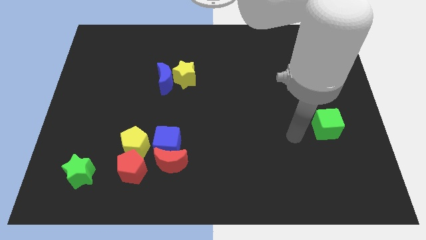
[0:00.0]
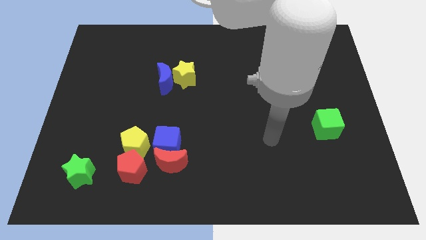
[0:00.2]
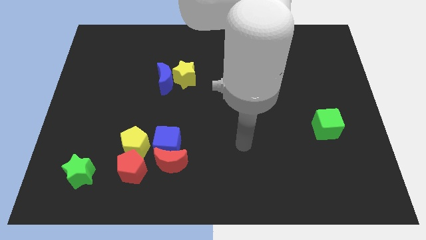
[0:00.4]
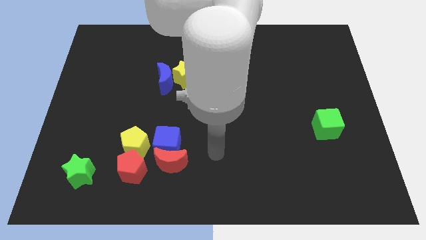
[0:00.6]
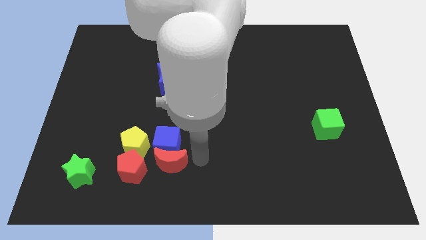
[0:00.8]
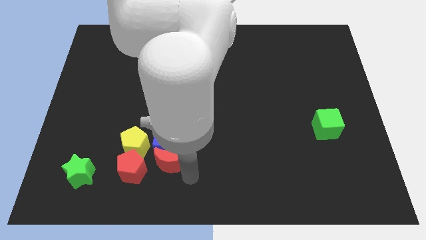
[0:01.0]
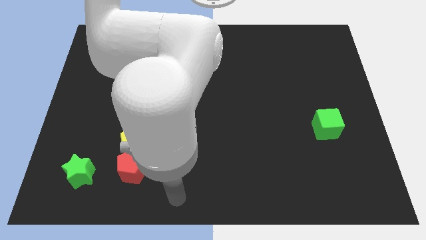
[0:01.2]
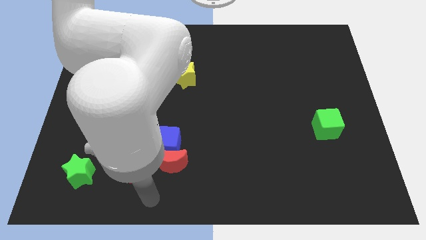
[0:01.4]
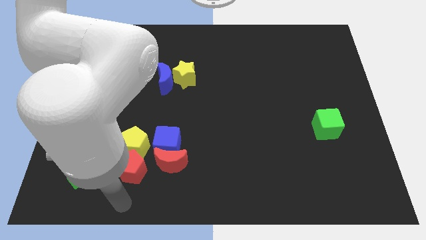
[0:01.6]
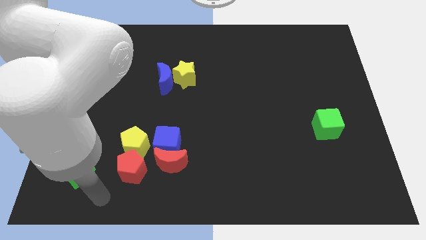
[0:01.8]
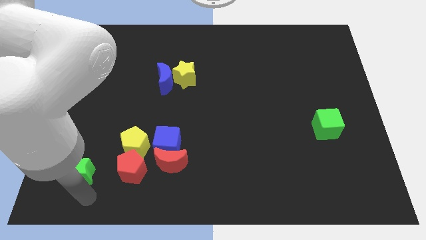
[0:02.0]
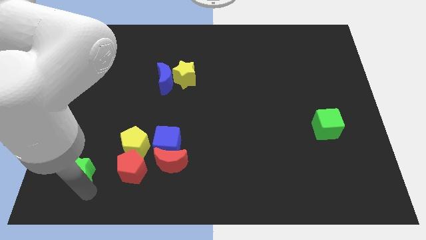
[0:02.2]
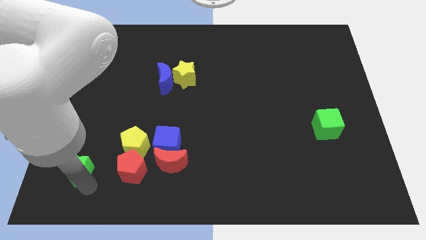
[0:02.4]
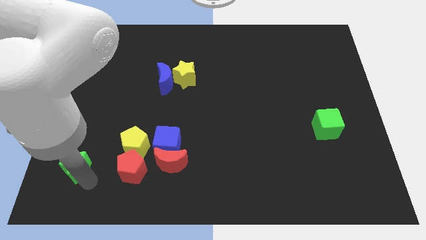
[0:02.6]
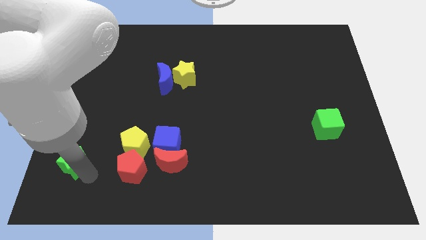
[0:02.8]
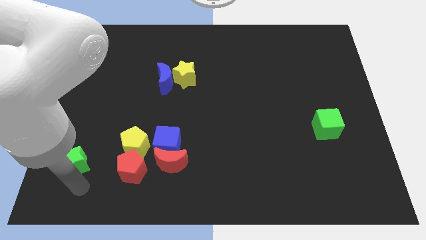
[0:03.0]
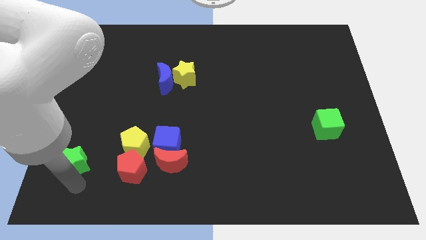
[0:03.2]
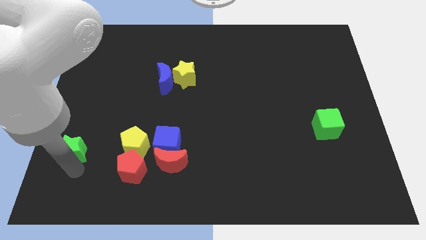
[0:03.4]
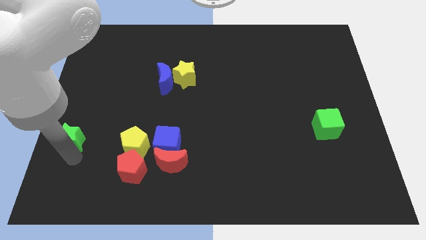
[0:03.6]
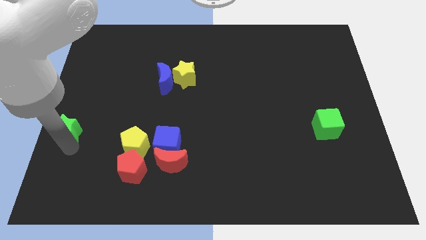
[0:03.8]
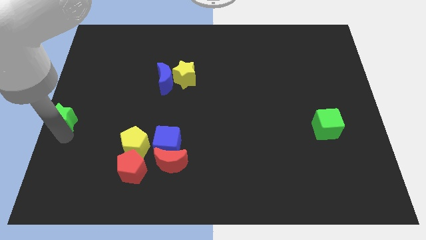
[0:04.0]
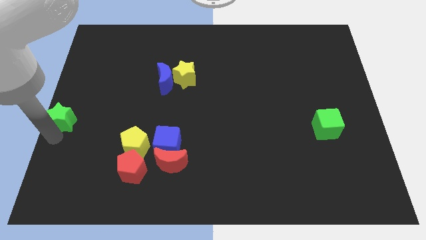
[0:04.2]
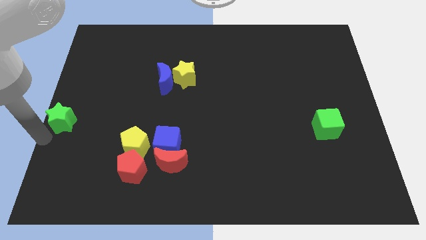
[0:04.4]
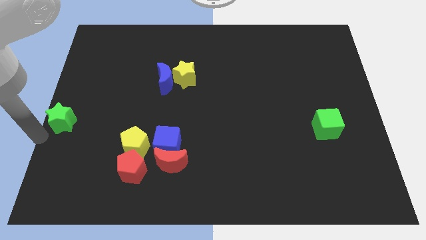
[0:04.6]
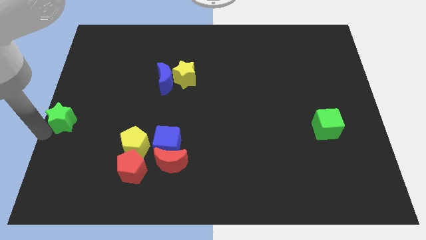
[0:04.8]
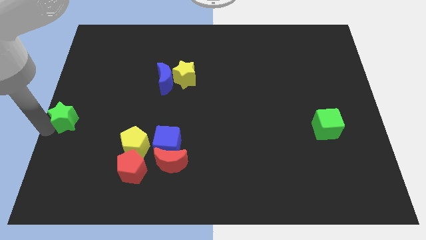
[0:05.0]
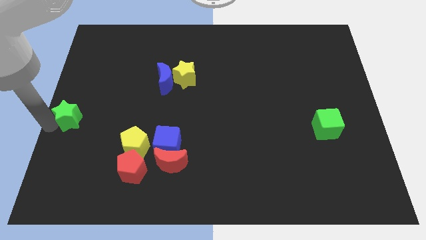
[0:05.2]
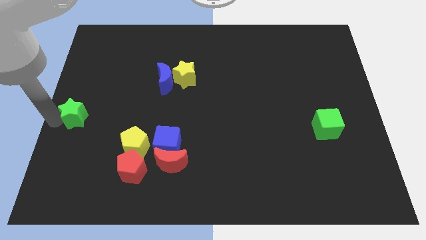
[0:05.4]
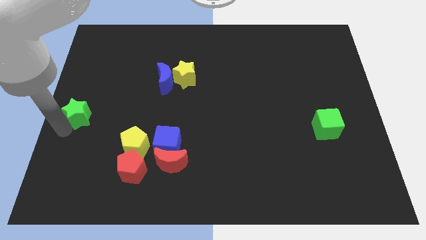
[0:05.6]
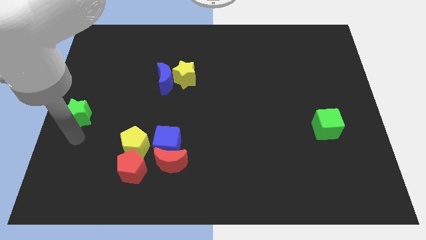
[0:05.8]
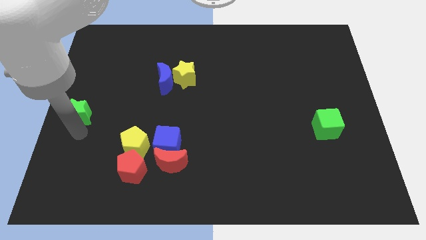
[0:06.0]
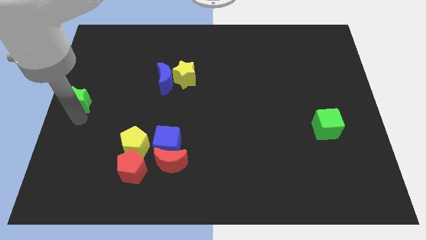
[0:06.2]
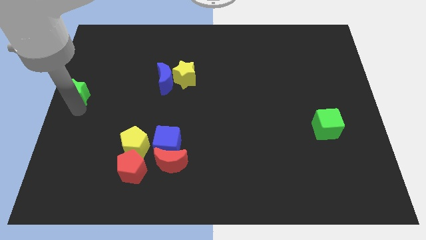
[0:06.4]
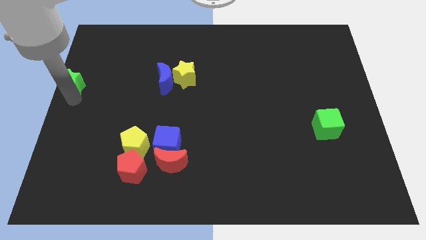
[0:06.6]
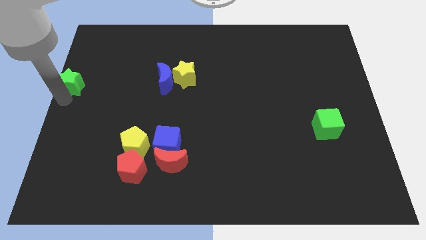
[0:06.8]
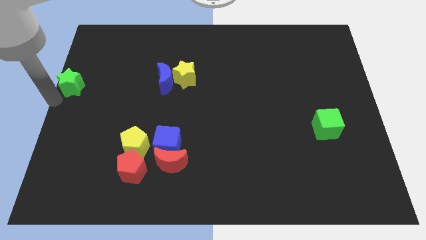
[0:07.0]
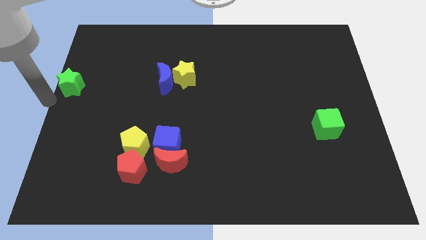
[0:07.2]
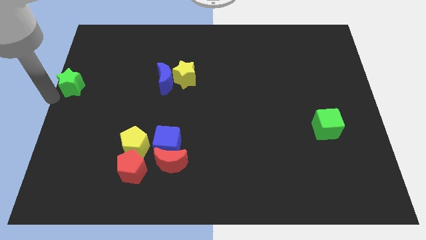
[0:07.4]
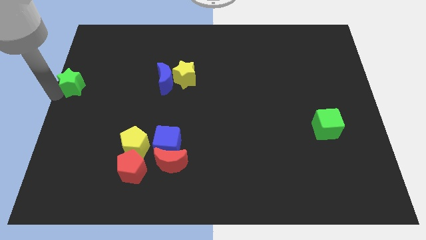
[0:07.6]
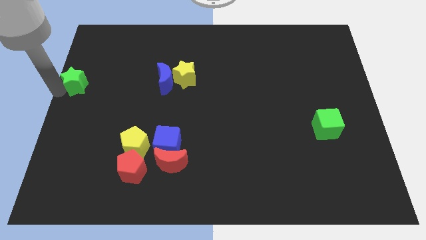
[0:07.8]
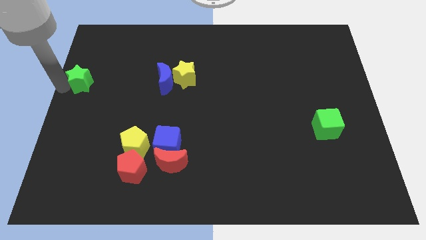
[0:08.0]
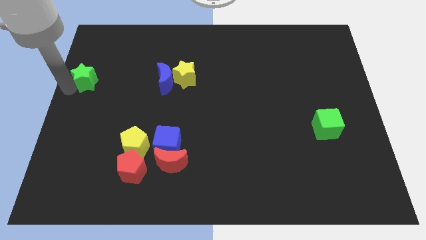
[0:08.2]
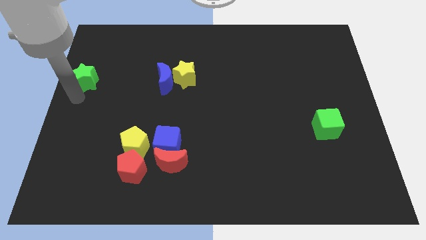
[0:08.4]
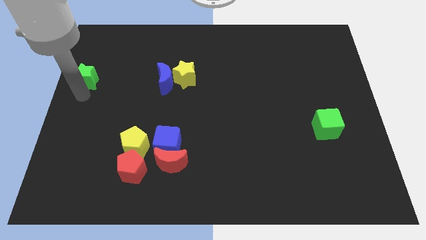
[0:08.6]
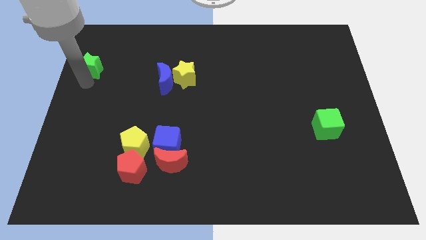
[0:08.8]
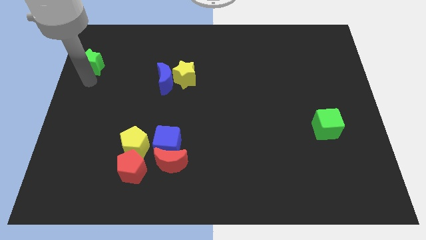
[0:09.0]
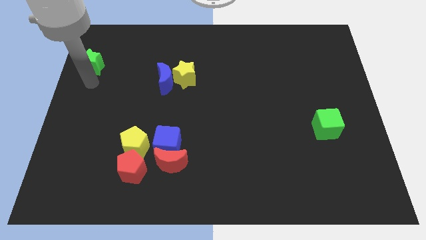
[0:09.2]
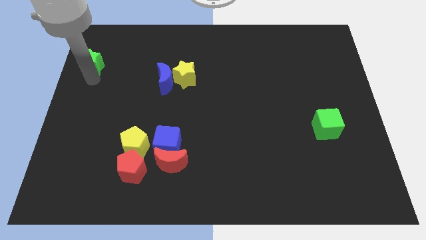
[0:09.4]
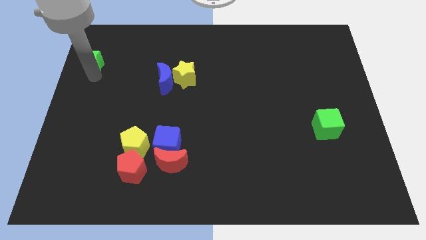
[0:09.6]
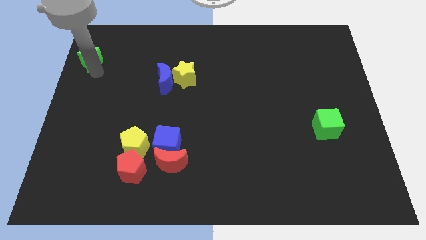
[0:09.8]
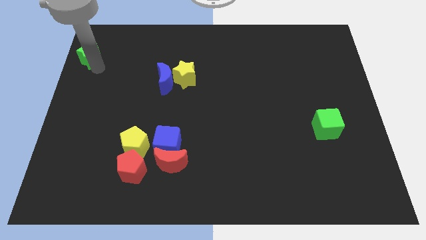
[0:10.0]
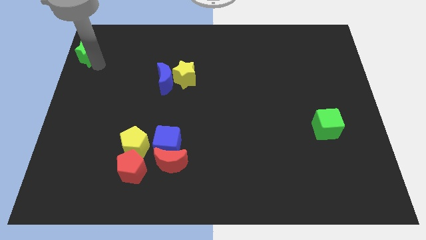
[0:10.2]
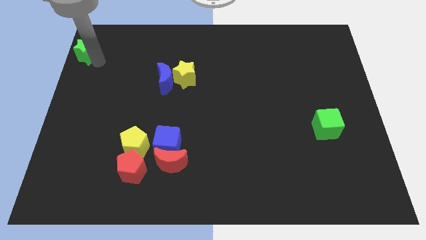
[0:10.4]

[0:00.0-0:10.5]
push the green star to the upper left corner

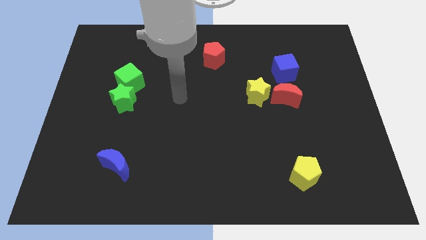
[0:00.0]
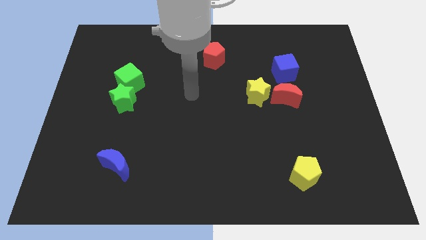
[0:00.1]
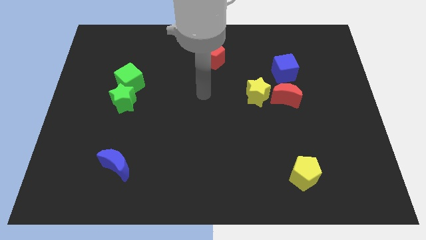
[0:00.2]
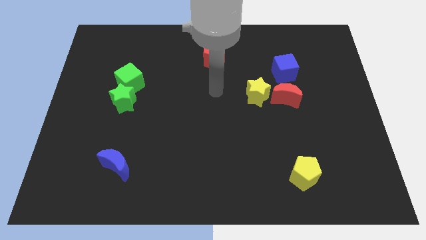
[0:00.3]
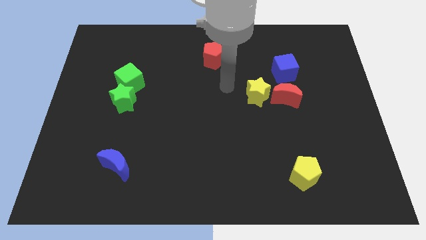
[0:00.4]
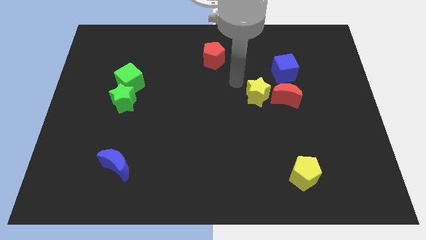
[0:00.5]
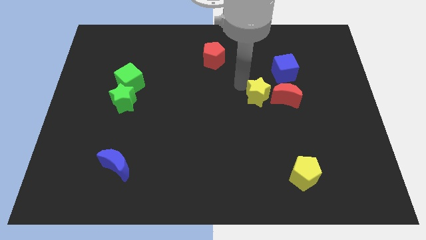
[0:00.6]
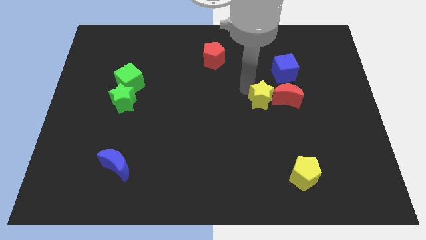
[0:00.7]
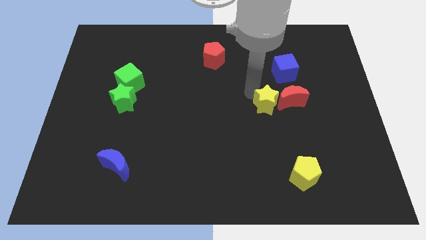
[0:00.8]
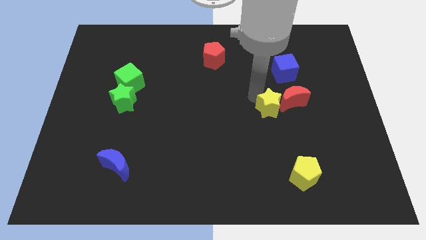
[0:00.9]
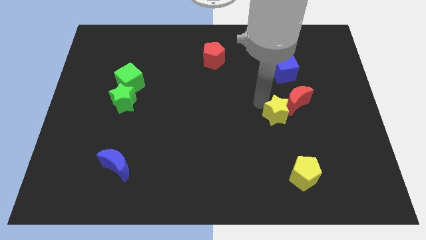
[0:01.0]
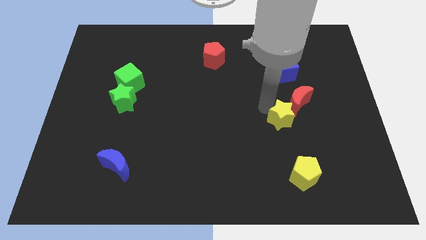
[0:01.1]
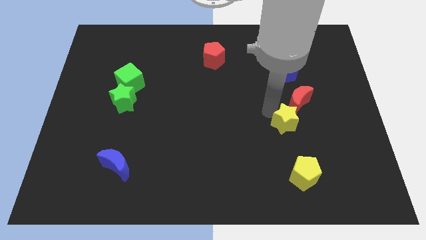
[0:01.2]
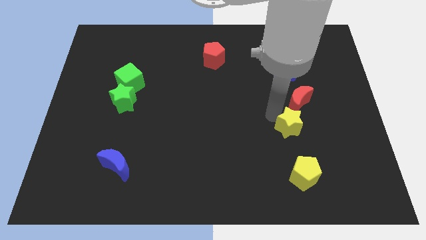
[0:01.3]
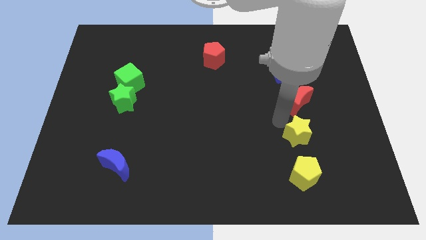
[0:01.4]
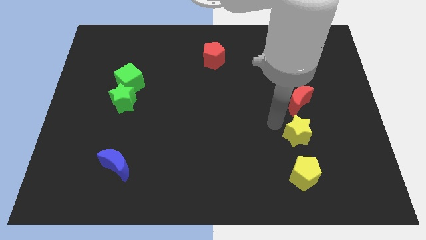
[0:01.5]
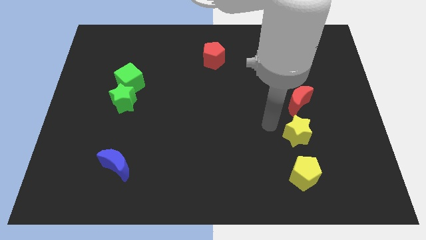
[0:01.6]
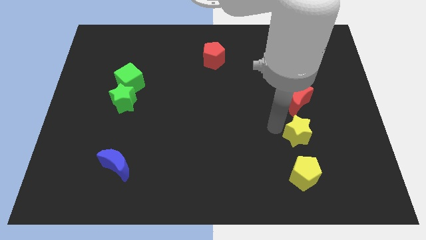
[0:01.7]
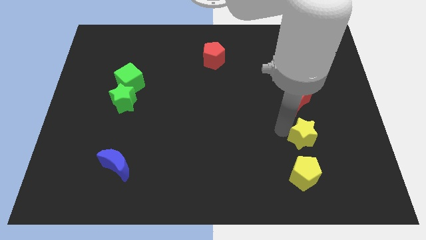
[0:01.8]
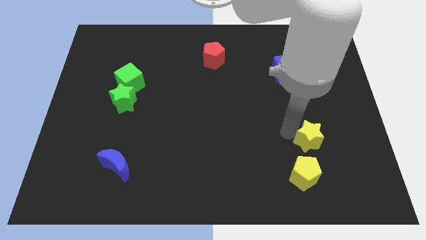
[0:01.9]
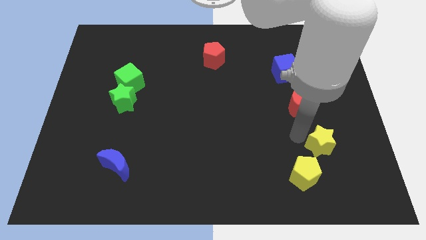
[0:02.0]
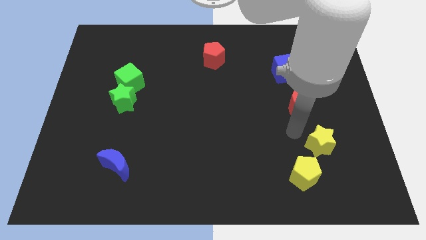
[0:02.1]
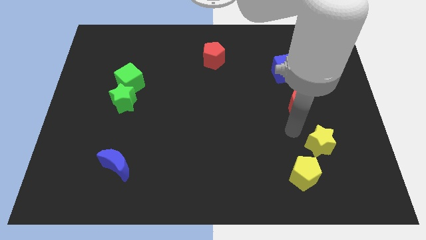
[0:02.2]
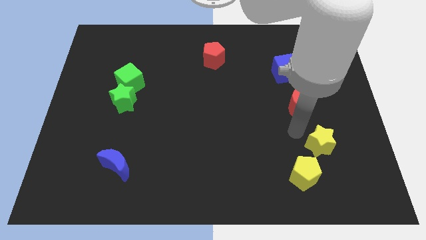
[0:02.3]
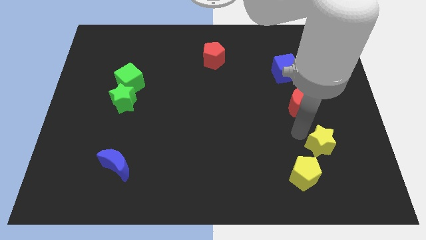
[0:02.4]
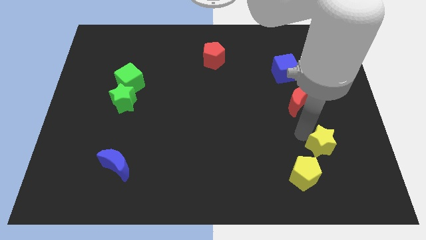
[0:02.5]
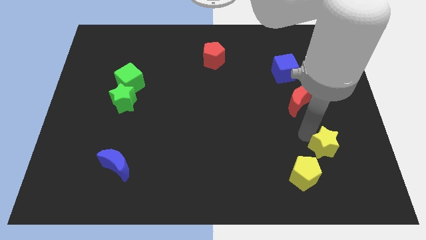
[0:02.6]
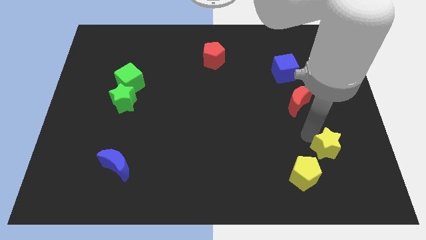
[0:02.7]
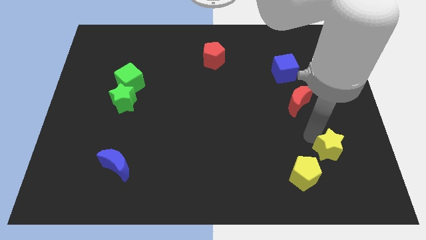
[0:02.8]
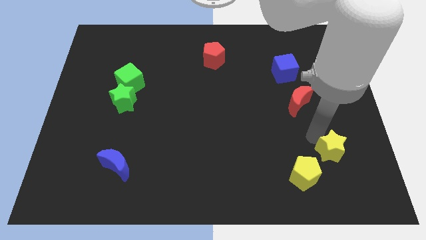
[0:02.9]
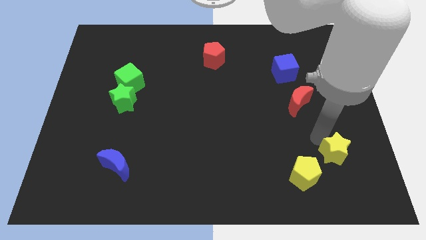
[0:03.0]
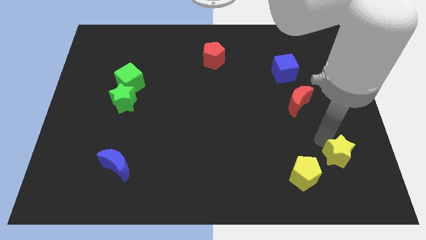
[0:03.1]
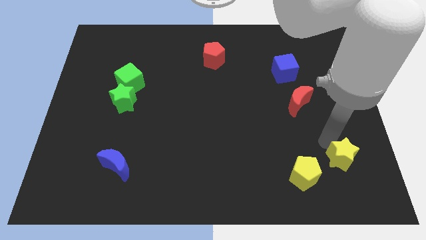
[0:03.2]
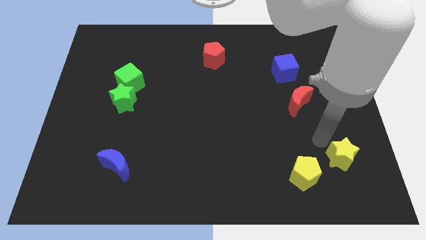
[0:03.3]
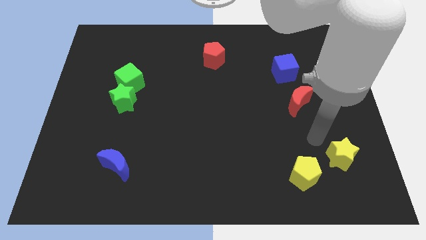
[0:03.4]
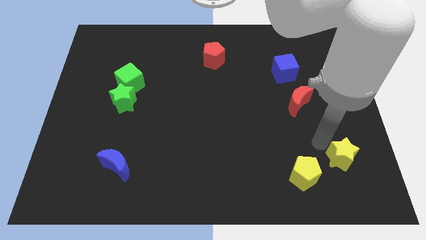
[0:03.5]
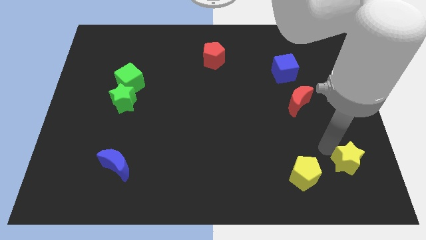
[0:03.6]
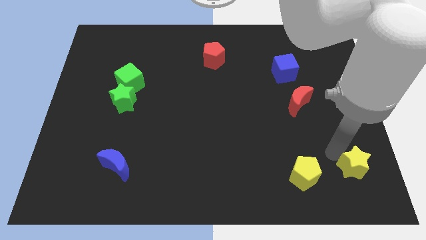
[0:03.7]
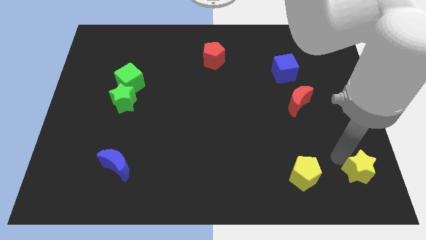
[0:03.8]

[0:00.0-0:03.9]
push the yellow star to the bottom right
